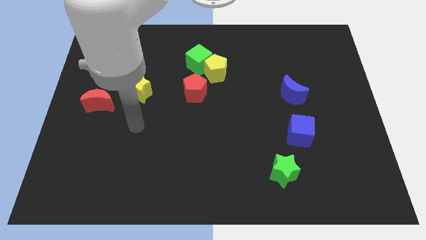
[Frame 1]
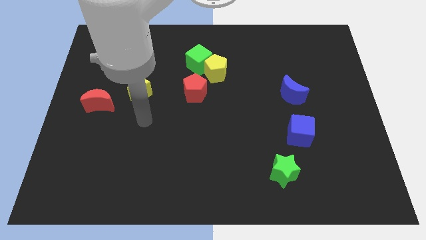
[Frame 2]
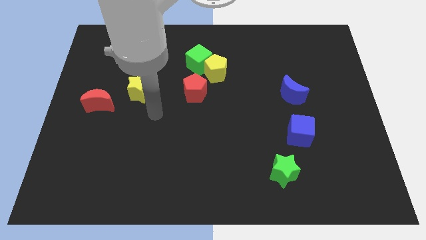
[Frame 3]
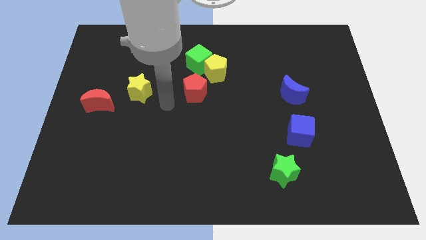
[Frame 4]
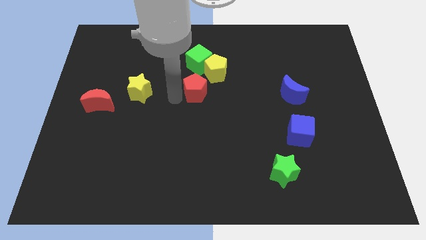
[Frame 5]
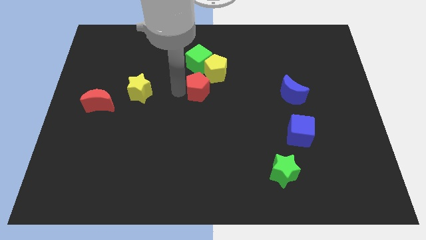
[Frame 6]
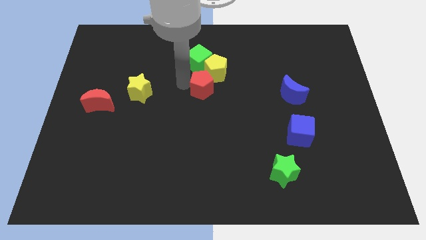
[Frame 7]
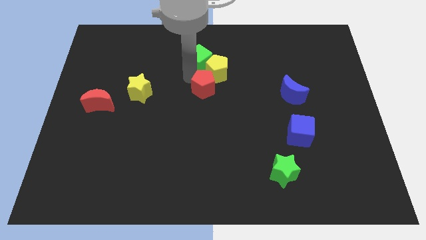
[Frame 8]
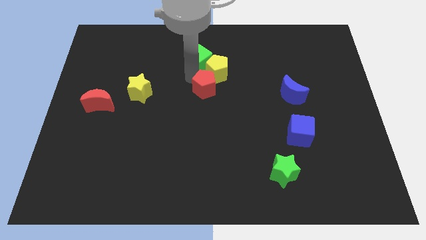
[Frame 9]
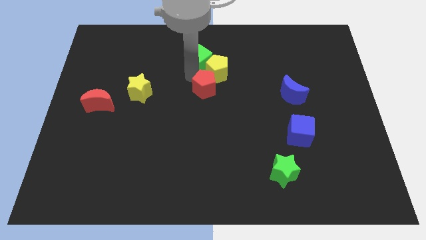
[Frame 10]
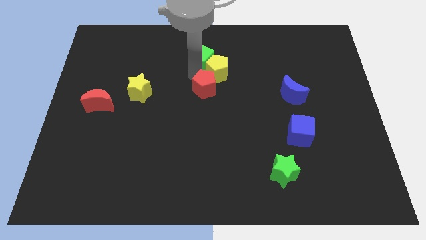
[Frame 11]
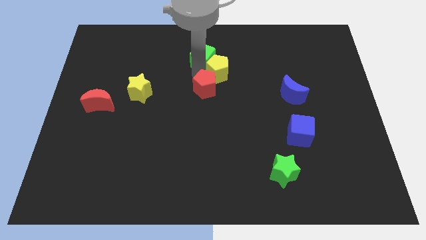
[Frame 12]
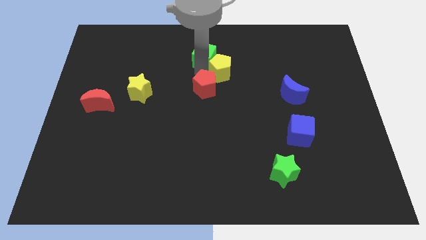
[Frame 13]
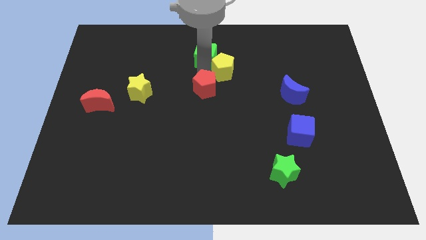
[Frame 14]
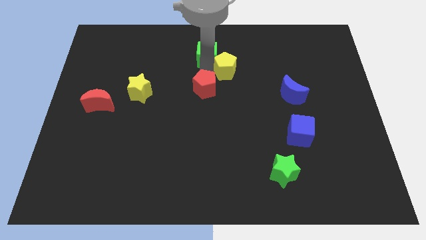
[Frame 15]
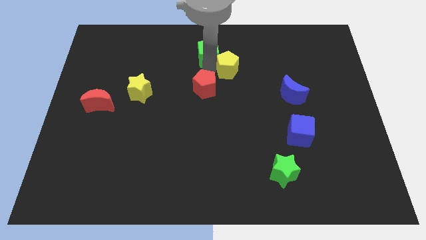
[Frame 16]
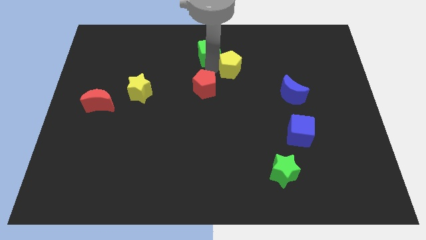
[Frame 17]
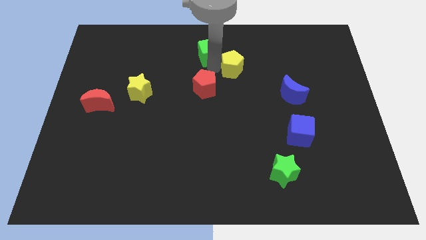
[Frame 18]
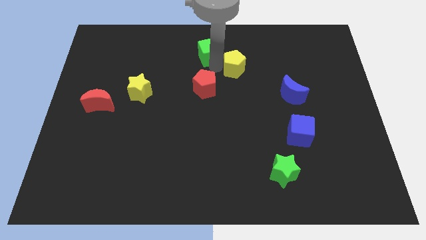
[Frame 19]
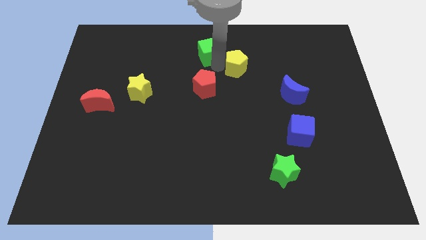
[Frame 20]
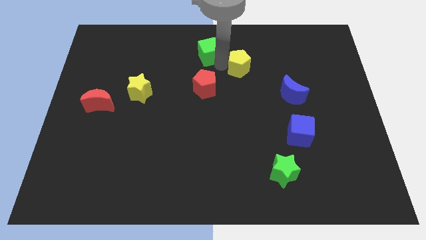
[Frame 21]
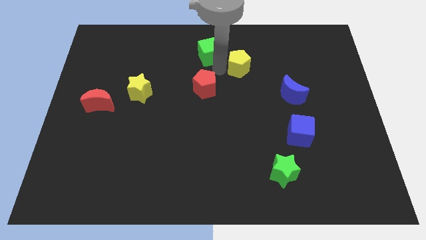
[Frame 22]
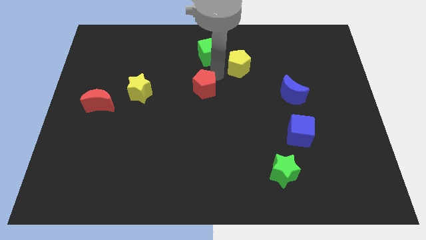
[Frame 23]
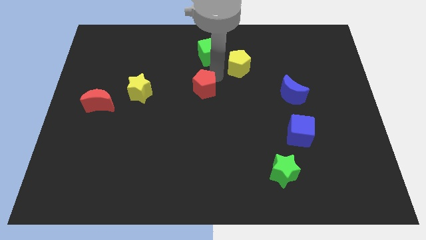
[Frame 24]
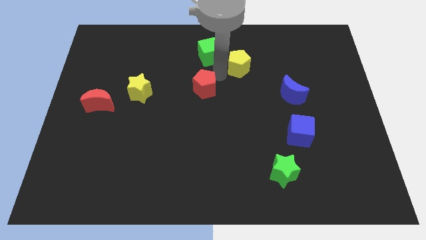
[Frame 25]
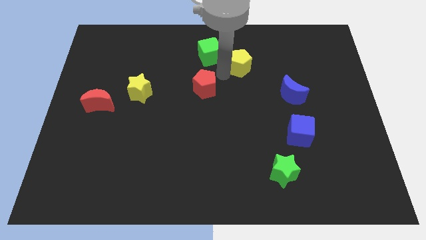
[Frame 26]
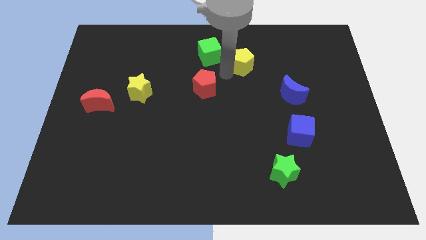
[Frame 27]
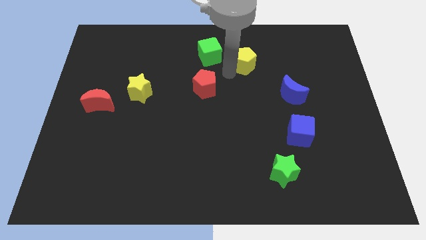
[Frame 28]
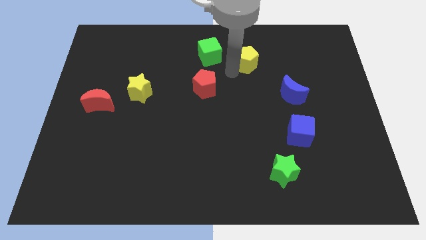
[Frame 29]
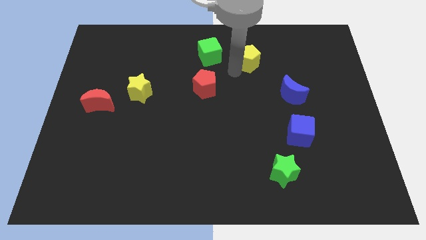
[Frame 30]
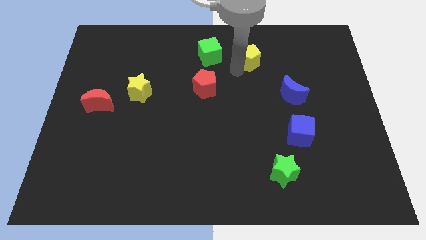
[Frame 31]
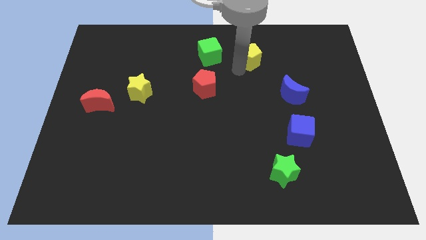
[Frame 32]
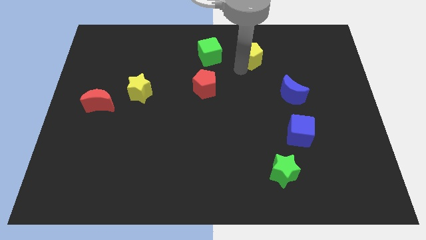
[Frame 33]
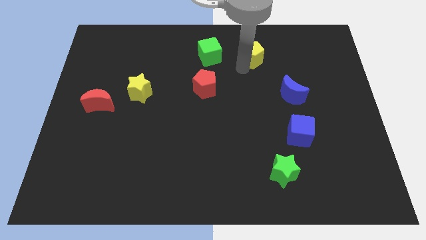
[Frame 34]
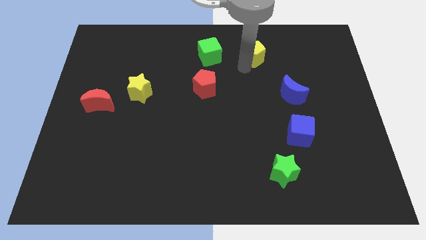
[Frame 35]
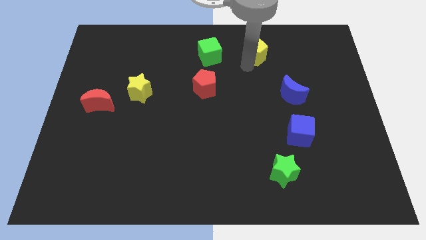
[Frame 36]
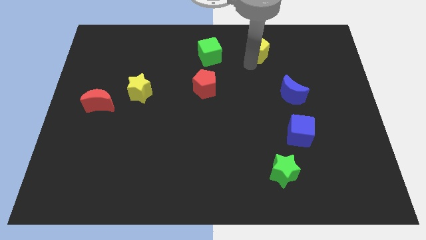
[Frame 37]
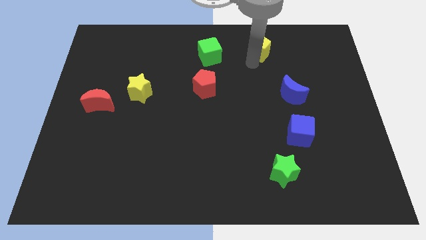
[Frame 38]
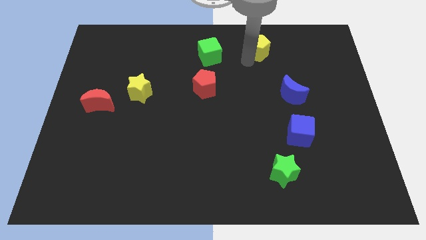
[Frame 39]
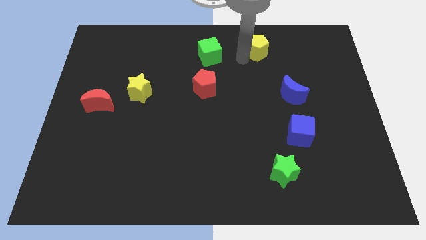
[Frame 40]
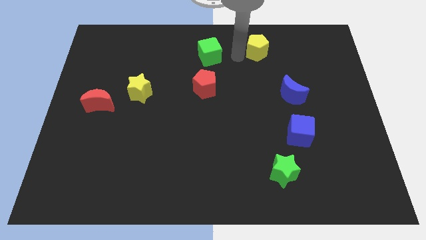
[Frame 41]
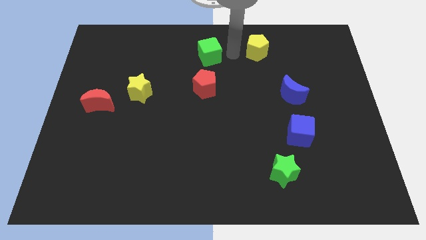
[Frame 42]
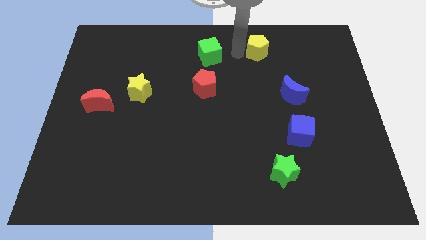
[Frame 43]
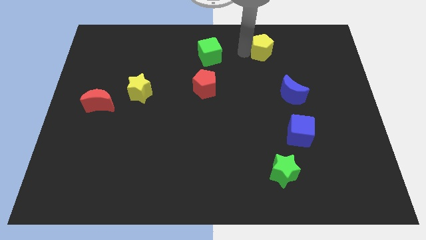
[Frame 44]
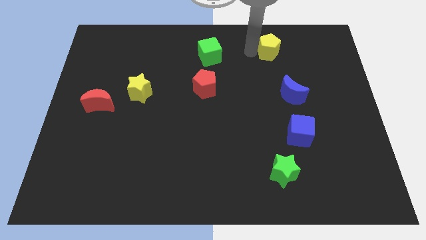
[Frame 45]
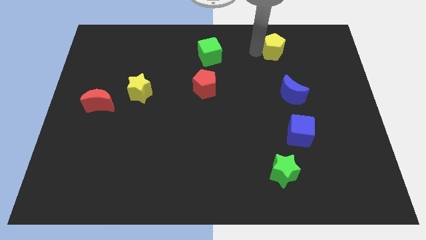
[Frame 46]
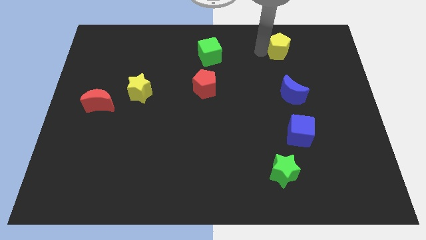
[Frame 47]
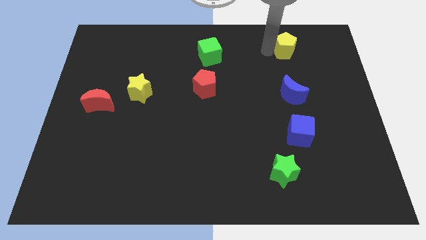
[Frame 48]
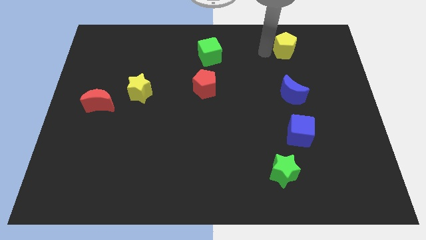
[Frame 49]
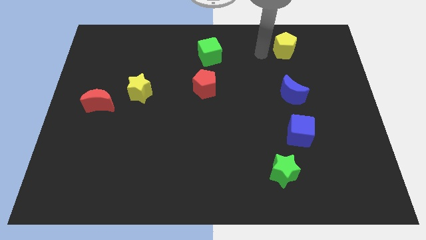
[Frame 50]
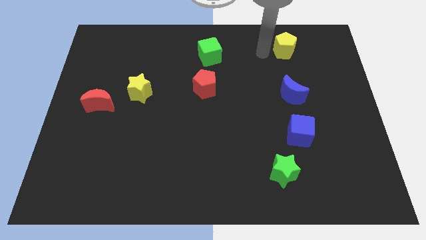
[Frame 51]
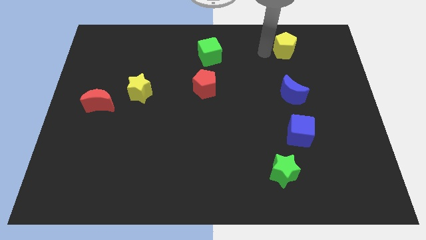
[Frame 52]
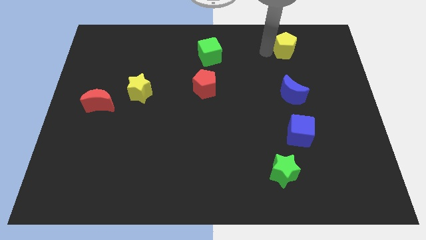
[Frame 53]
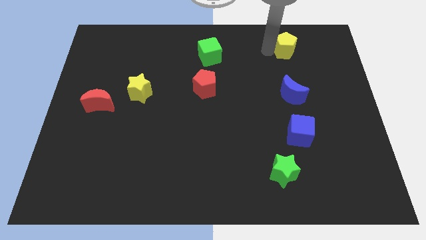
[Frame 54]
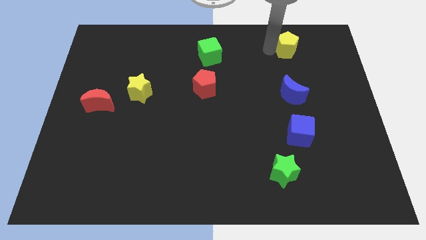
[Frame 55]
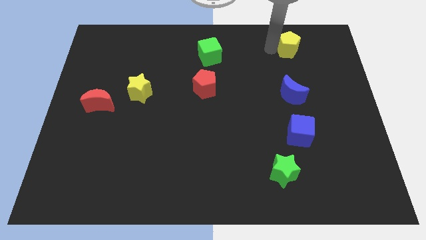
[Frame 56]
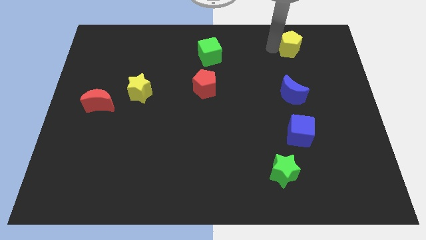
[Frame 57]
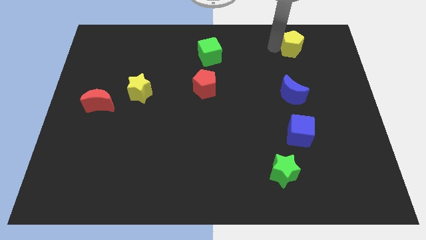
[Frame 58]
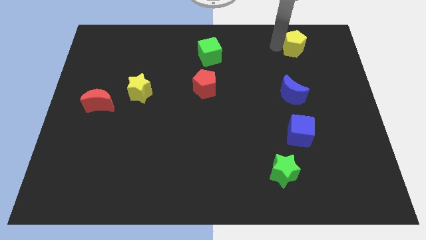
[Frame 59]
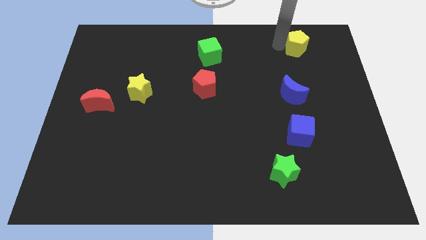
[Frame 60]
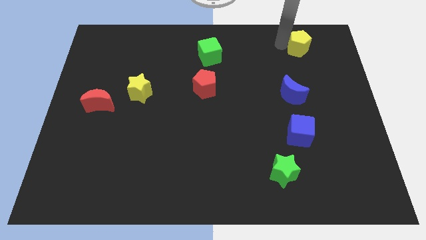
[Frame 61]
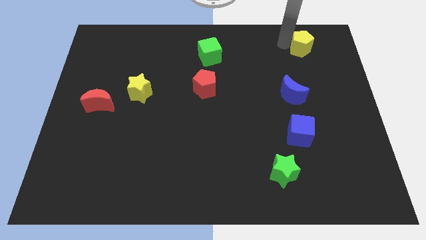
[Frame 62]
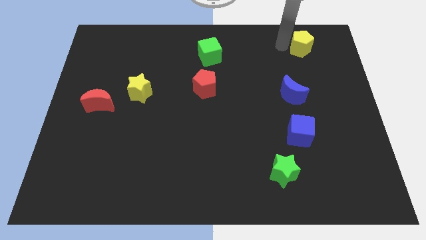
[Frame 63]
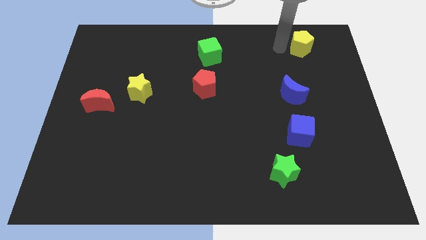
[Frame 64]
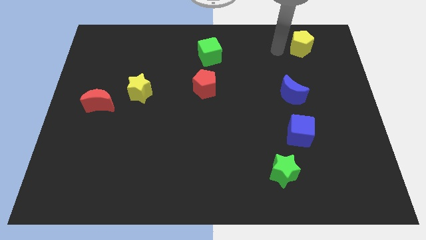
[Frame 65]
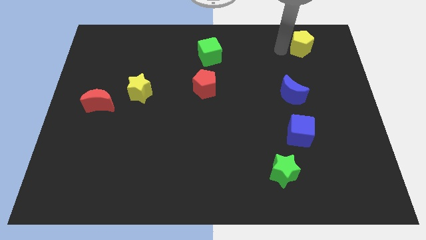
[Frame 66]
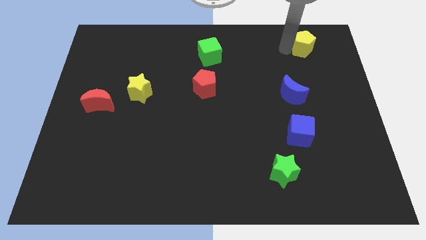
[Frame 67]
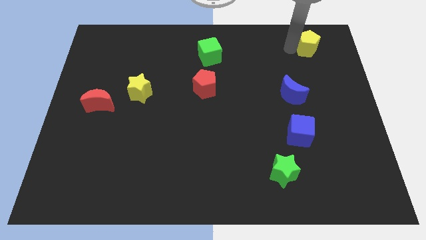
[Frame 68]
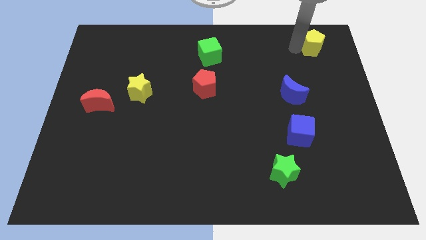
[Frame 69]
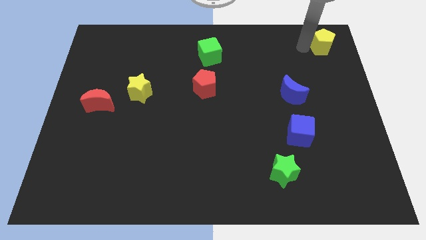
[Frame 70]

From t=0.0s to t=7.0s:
put the yellow pentagon to the top right
